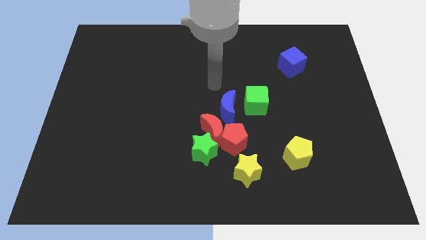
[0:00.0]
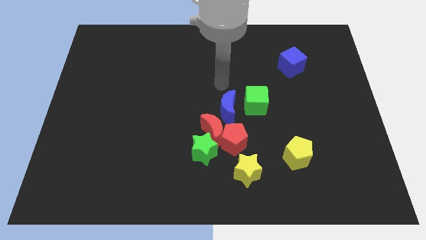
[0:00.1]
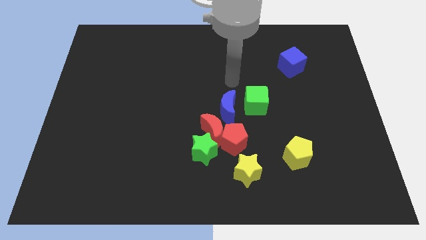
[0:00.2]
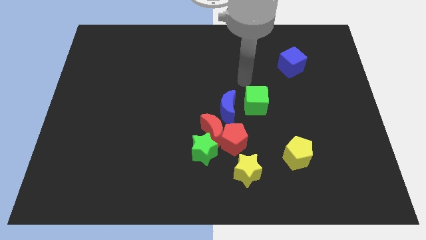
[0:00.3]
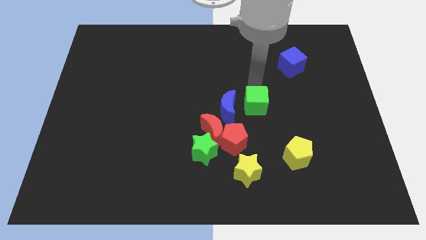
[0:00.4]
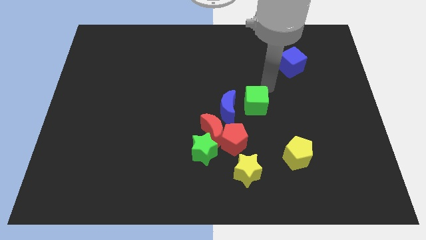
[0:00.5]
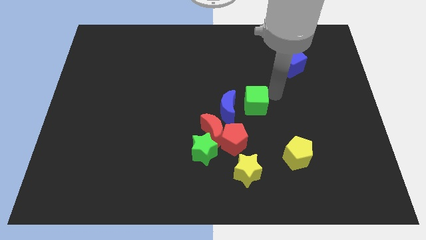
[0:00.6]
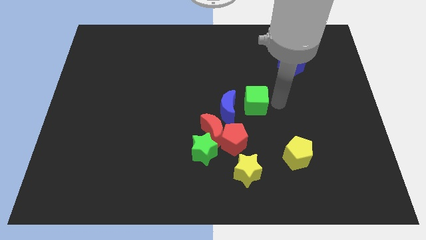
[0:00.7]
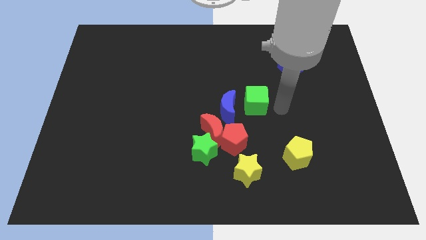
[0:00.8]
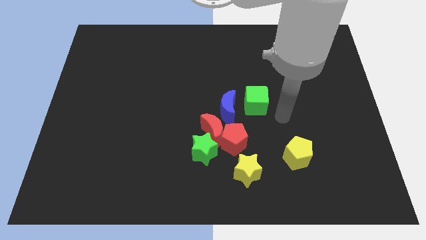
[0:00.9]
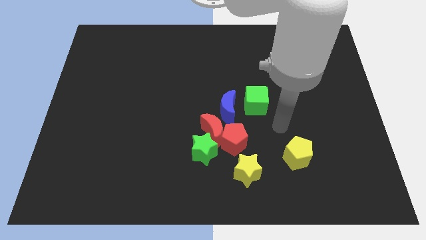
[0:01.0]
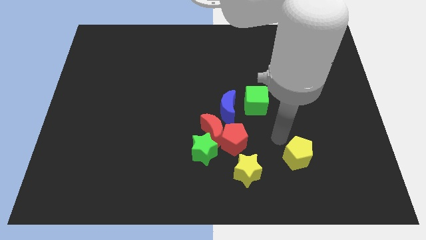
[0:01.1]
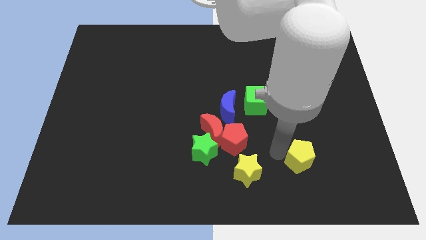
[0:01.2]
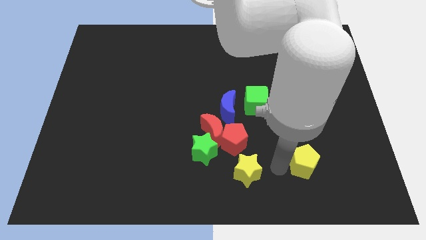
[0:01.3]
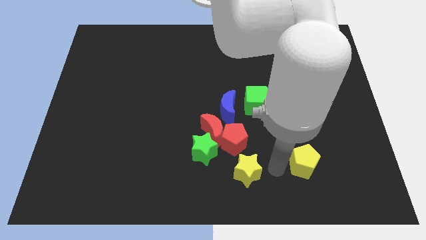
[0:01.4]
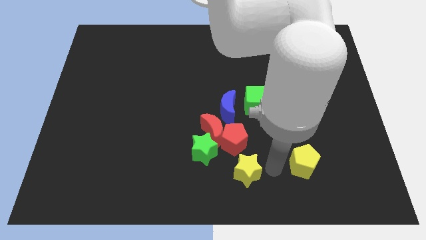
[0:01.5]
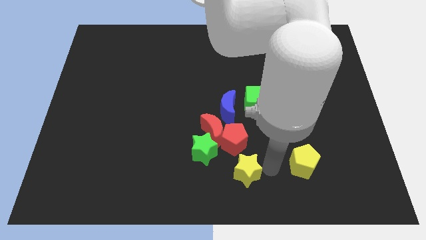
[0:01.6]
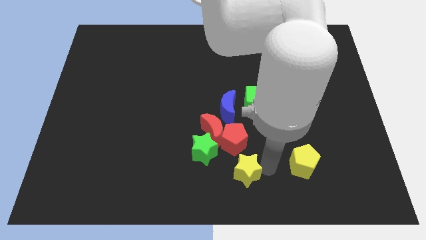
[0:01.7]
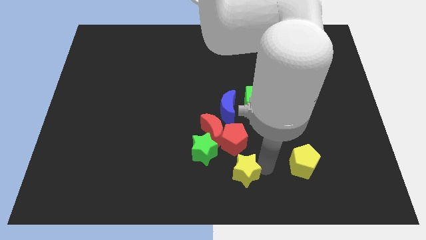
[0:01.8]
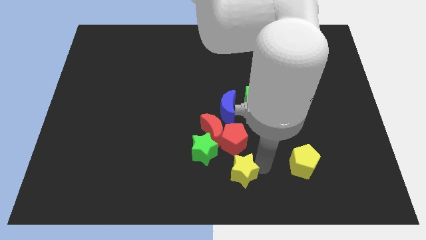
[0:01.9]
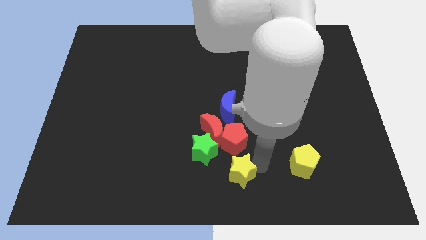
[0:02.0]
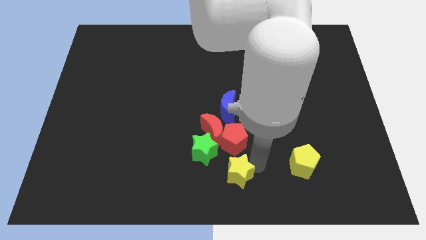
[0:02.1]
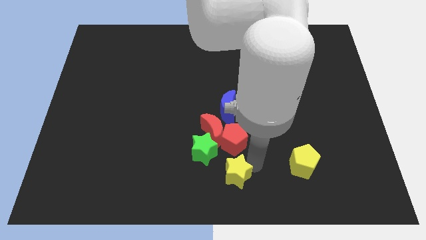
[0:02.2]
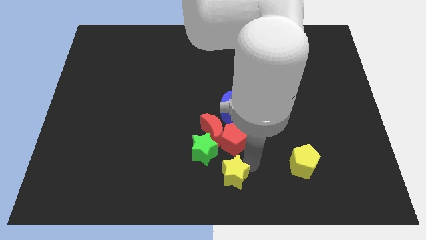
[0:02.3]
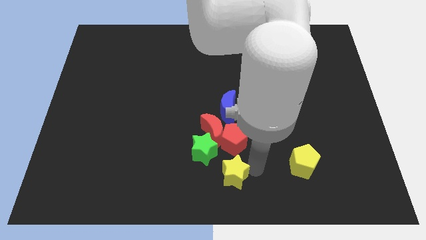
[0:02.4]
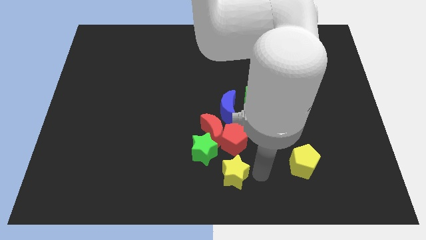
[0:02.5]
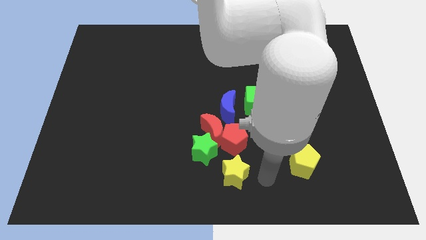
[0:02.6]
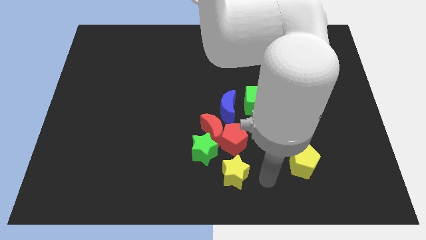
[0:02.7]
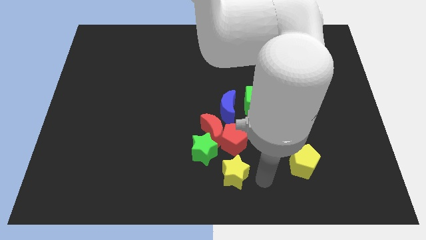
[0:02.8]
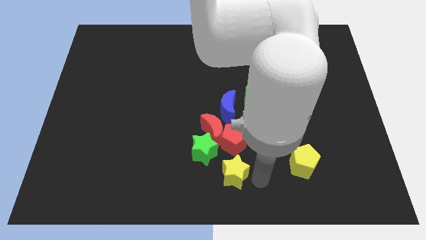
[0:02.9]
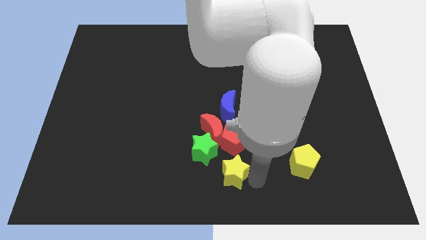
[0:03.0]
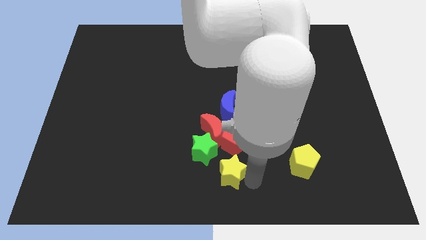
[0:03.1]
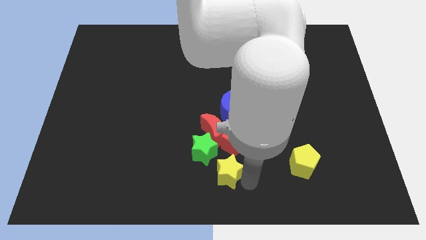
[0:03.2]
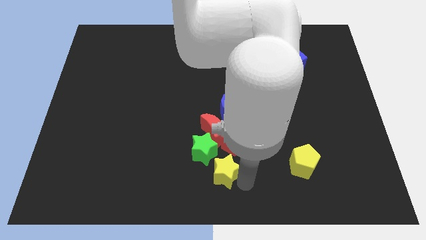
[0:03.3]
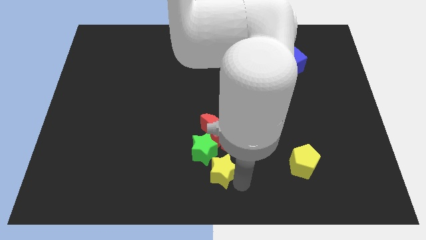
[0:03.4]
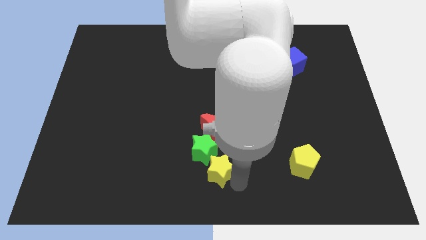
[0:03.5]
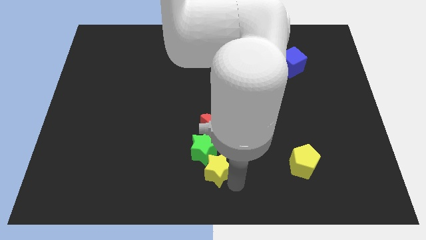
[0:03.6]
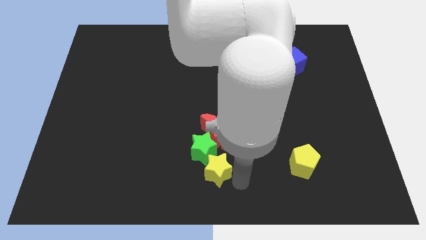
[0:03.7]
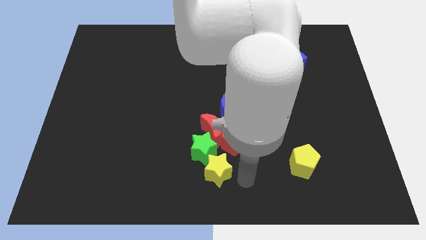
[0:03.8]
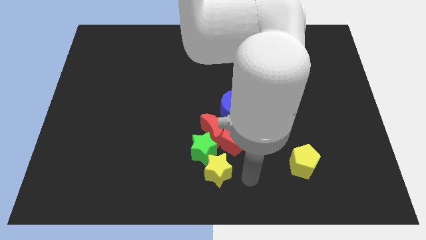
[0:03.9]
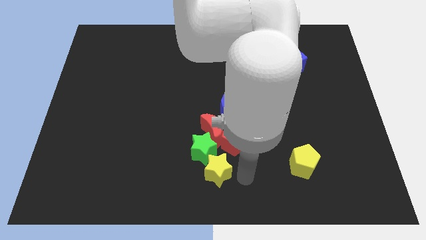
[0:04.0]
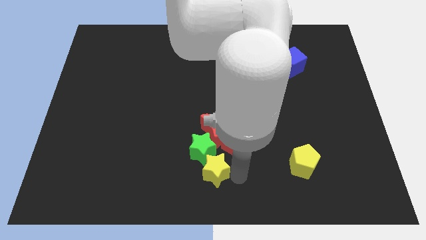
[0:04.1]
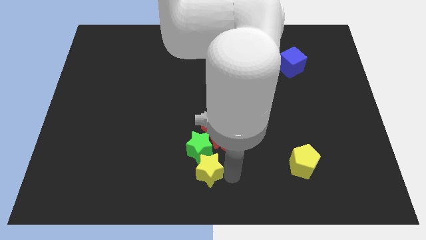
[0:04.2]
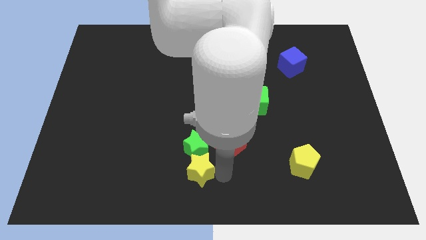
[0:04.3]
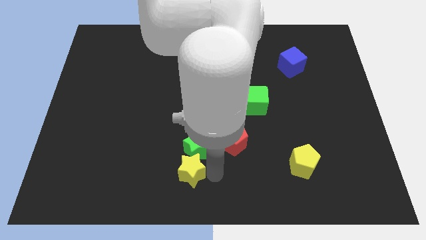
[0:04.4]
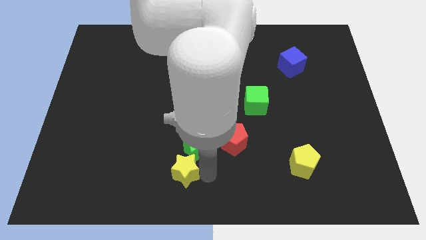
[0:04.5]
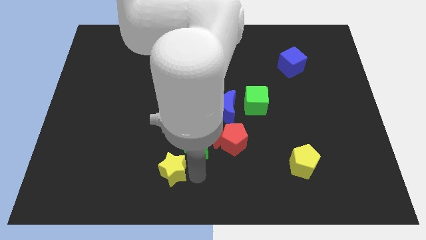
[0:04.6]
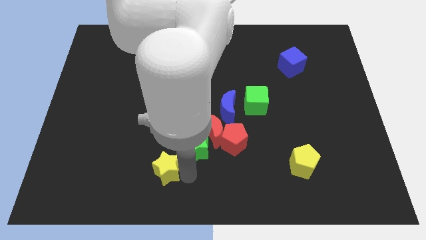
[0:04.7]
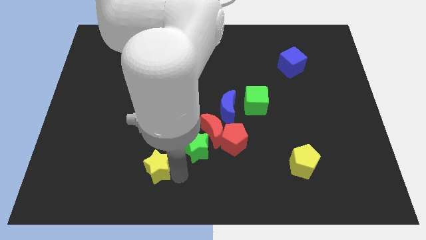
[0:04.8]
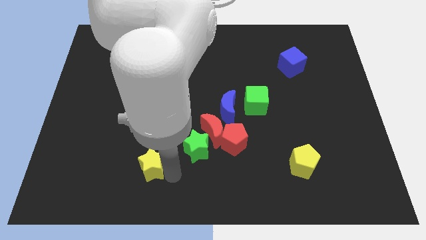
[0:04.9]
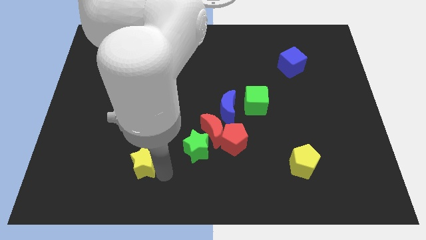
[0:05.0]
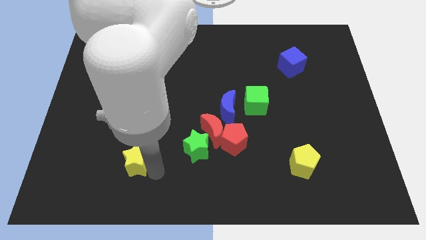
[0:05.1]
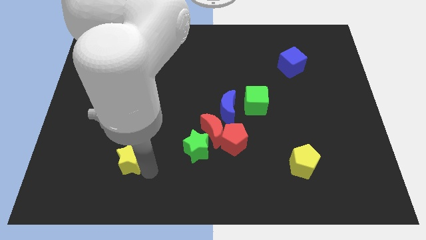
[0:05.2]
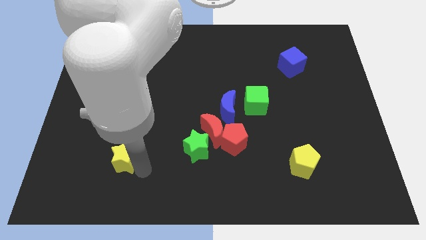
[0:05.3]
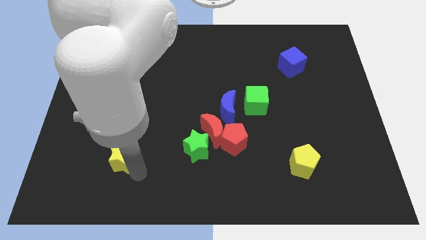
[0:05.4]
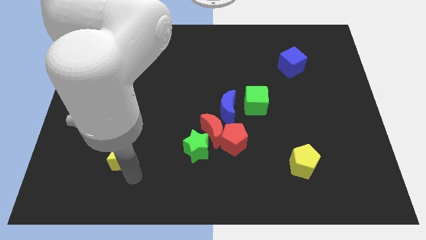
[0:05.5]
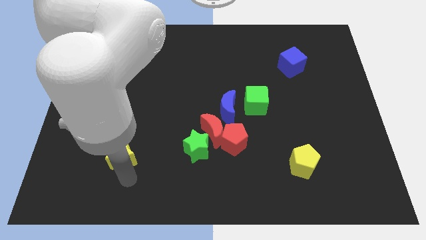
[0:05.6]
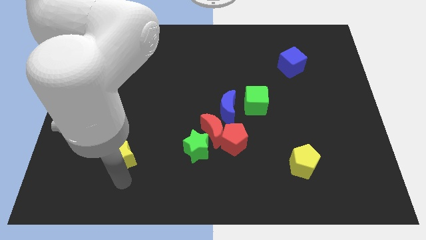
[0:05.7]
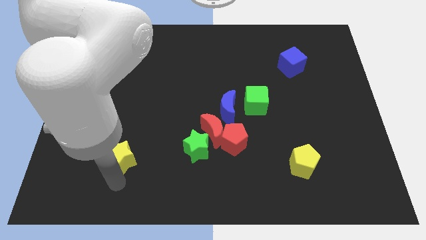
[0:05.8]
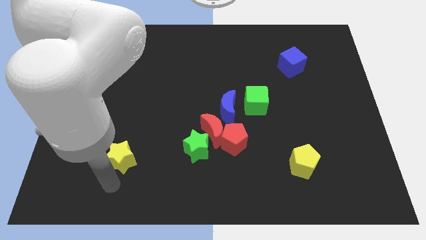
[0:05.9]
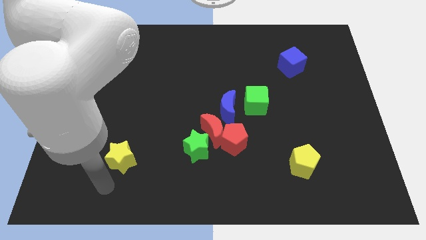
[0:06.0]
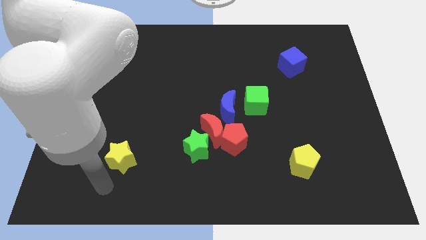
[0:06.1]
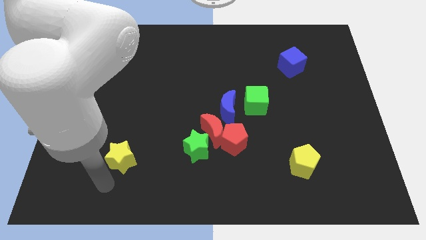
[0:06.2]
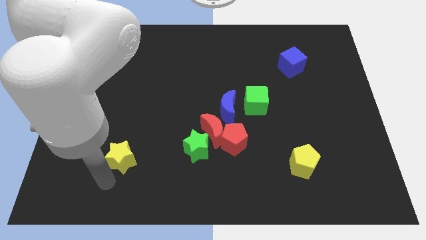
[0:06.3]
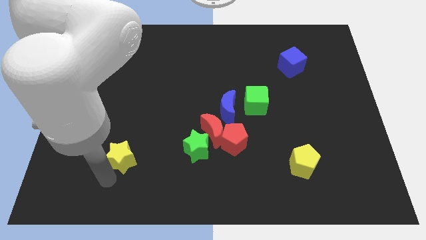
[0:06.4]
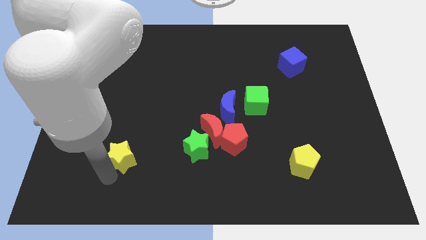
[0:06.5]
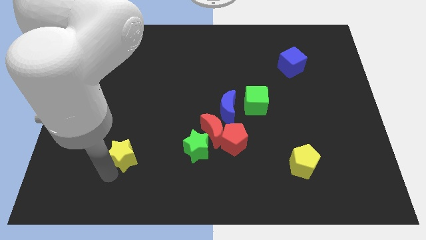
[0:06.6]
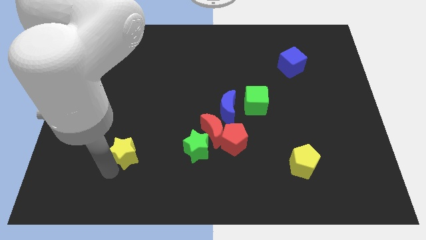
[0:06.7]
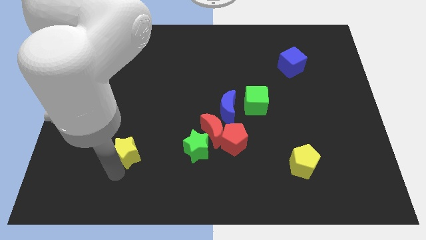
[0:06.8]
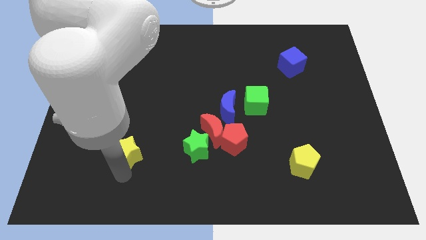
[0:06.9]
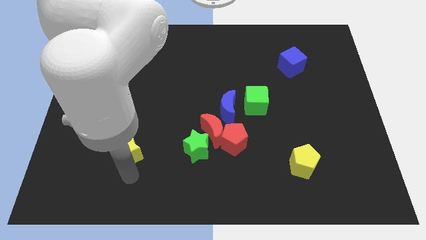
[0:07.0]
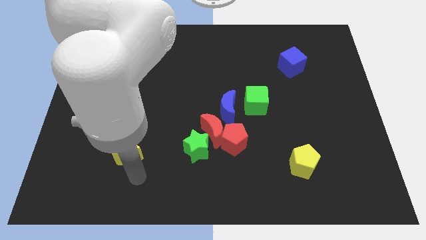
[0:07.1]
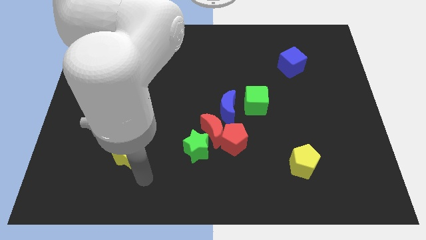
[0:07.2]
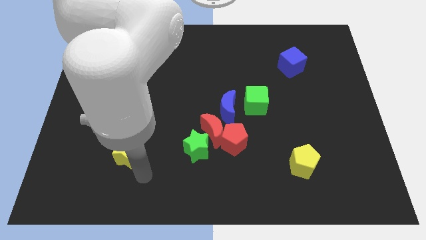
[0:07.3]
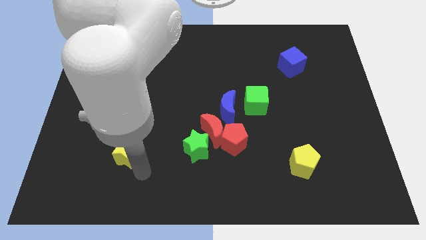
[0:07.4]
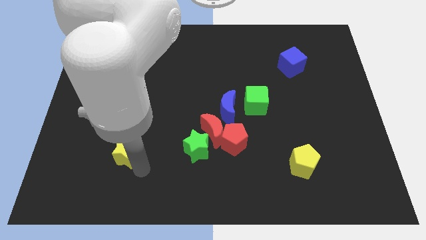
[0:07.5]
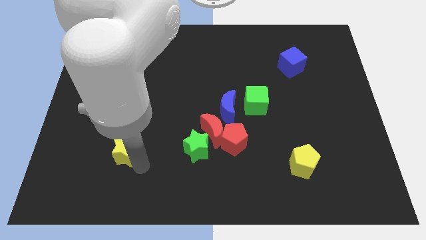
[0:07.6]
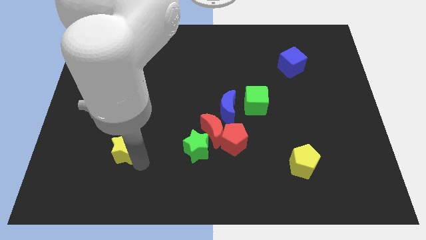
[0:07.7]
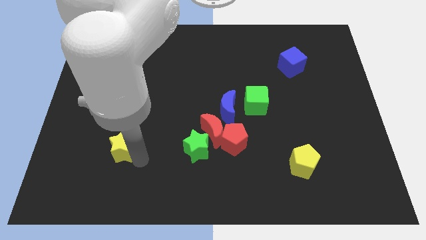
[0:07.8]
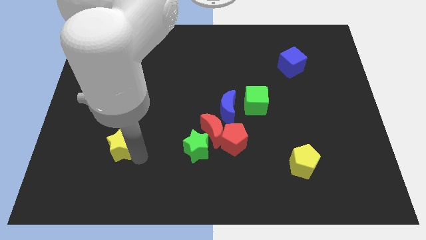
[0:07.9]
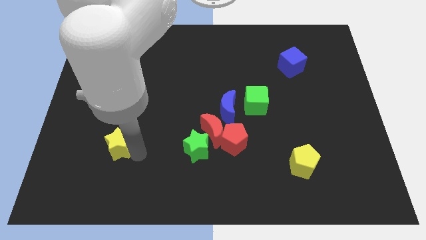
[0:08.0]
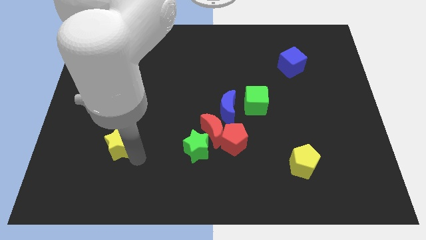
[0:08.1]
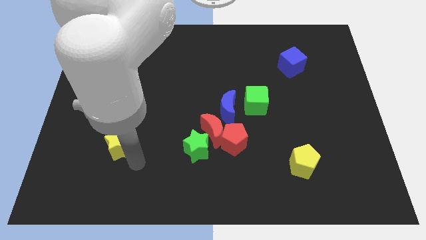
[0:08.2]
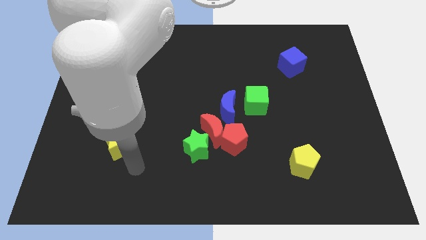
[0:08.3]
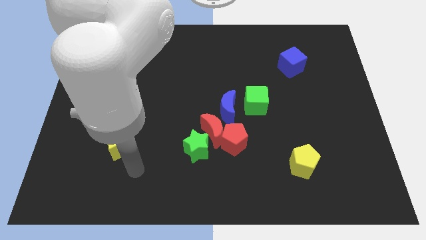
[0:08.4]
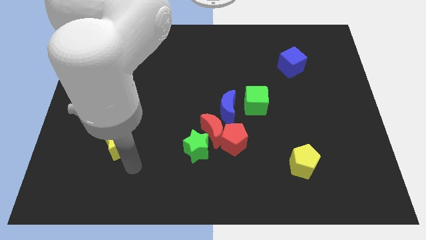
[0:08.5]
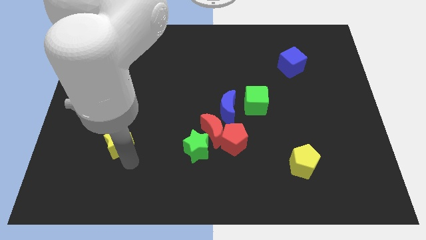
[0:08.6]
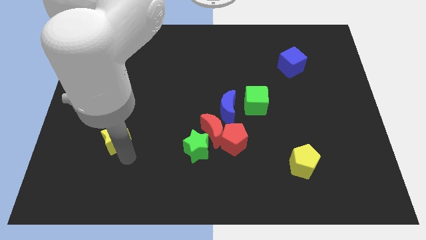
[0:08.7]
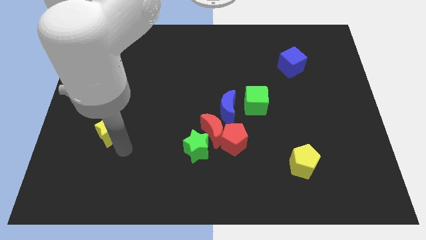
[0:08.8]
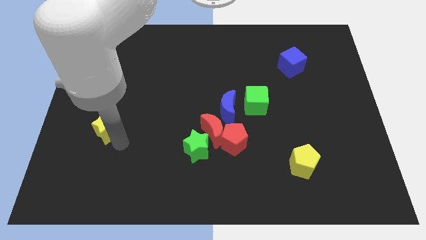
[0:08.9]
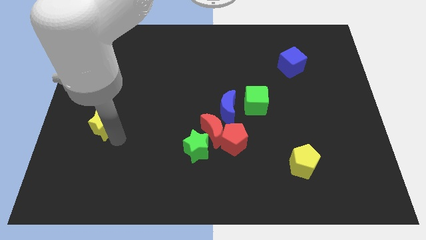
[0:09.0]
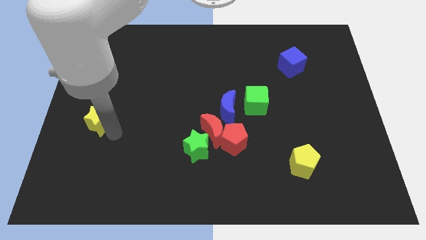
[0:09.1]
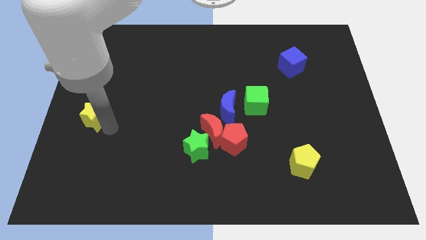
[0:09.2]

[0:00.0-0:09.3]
move the yellow star to the center left
